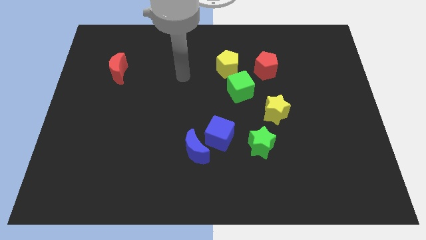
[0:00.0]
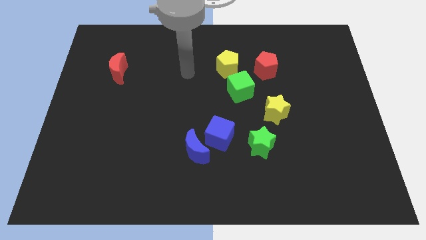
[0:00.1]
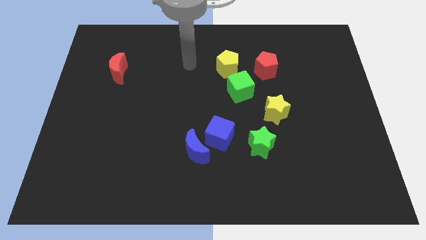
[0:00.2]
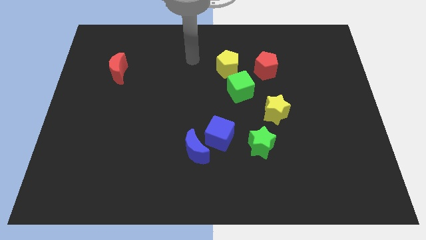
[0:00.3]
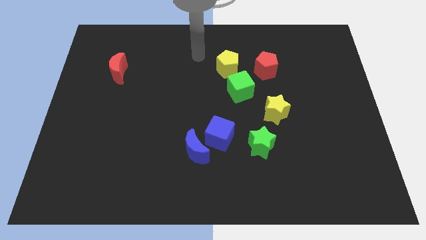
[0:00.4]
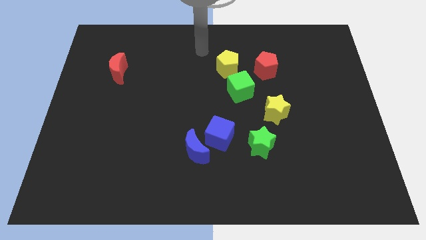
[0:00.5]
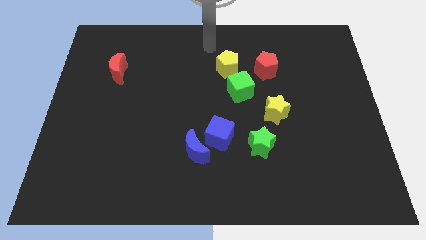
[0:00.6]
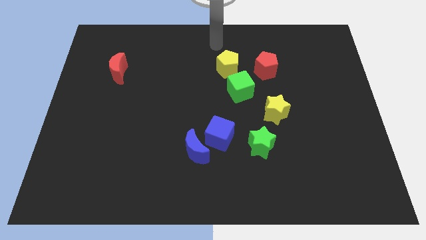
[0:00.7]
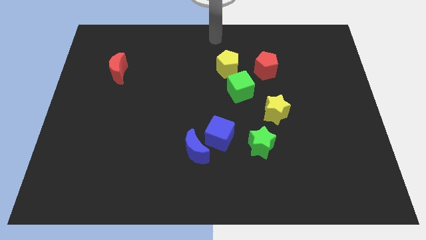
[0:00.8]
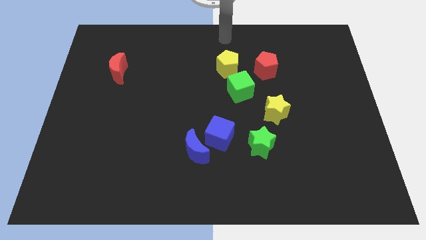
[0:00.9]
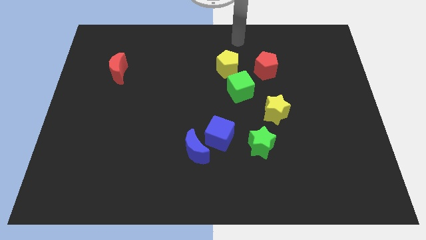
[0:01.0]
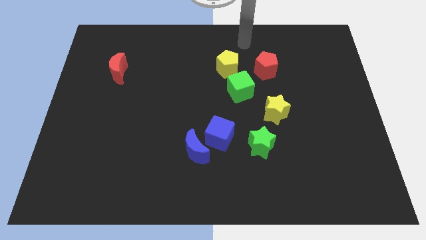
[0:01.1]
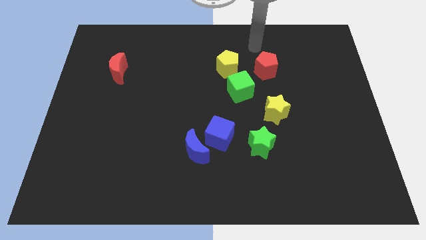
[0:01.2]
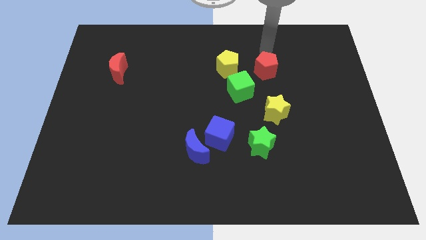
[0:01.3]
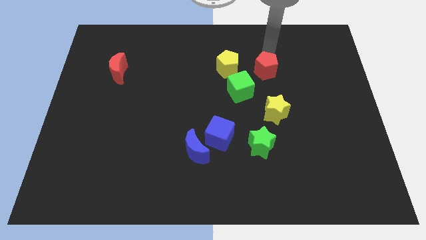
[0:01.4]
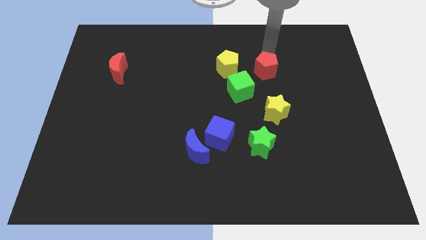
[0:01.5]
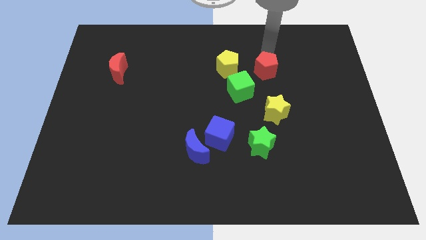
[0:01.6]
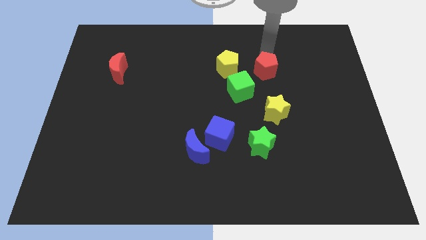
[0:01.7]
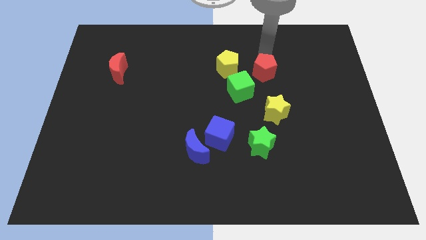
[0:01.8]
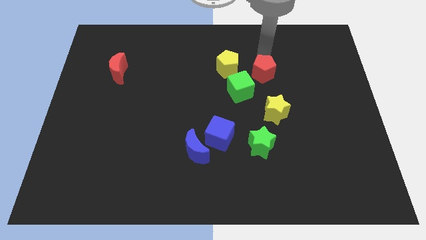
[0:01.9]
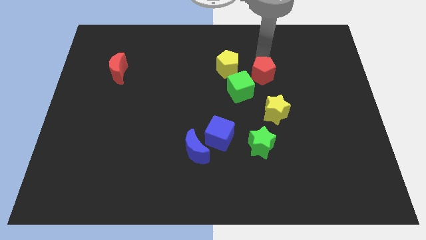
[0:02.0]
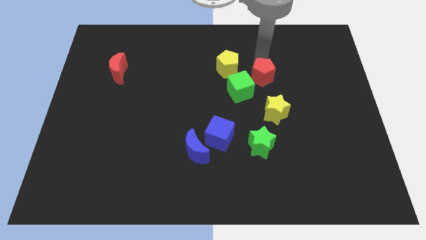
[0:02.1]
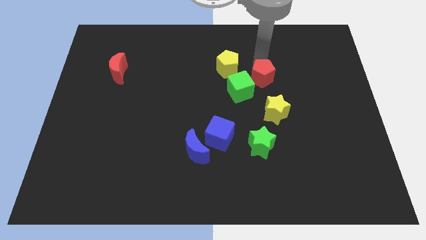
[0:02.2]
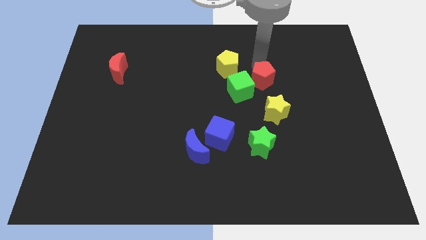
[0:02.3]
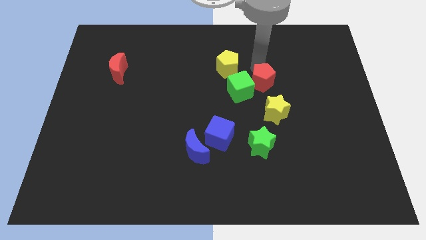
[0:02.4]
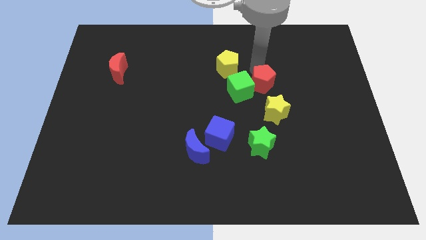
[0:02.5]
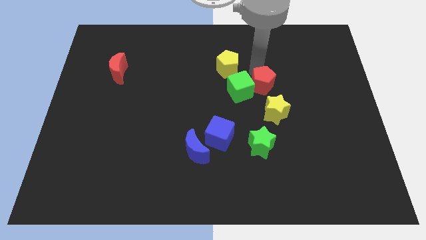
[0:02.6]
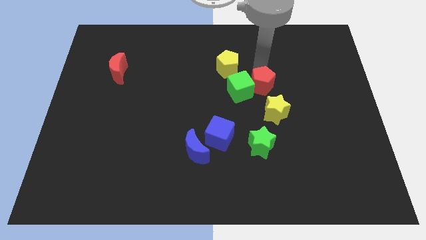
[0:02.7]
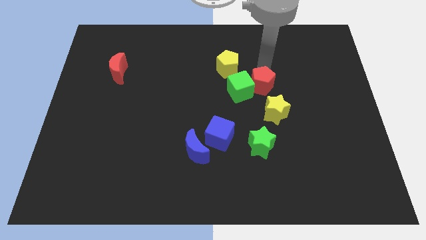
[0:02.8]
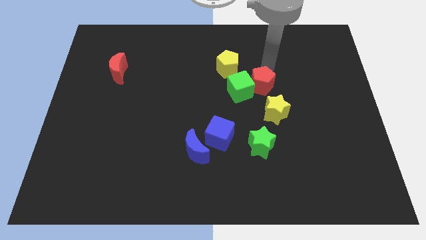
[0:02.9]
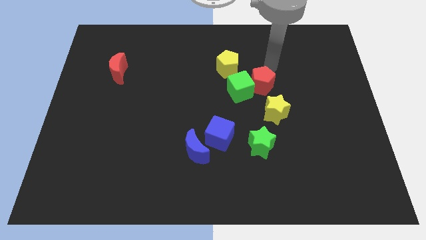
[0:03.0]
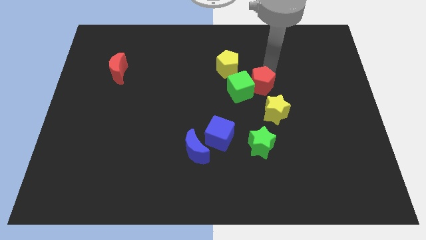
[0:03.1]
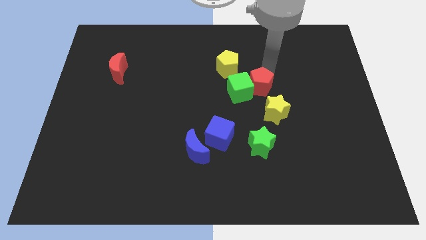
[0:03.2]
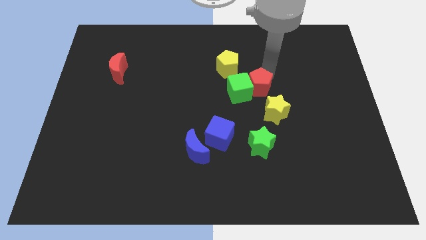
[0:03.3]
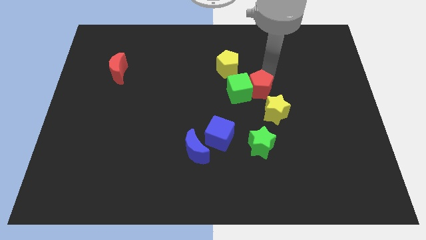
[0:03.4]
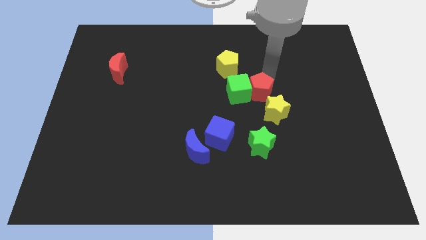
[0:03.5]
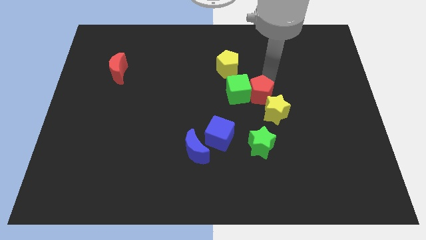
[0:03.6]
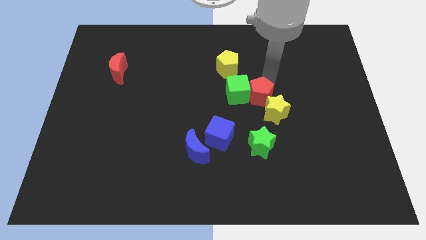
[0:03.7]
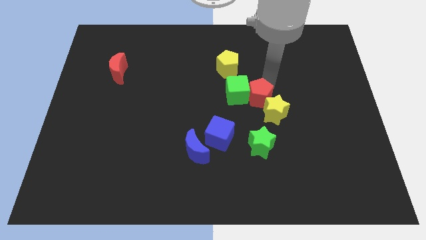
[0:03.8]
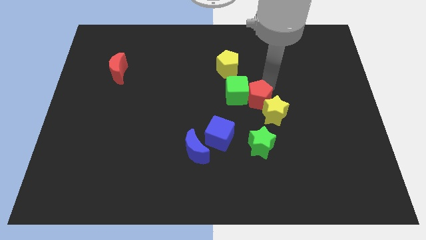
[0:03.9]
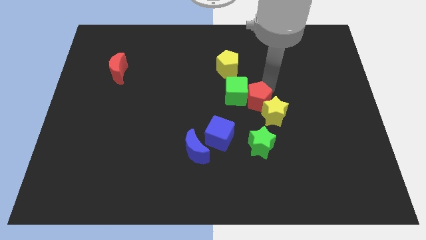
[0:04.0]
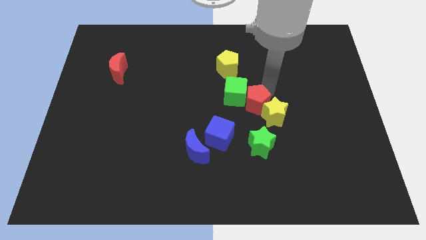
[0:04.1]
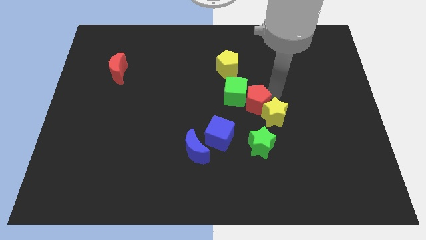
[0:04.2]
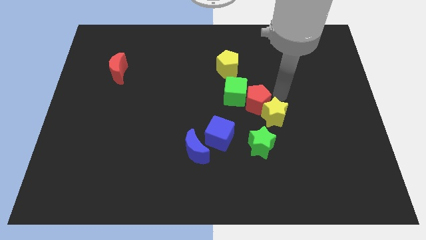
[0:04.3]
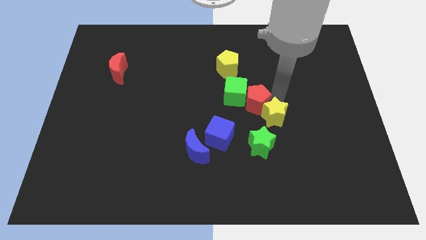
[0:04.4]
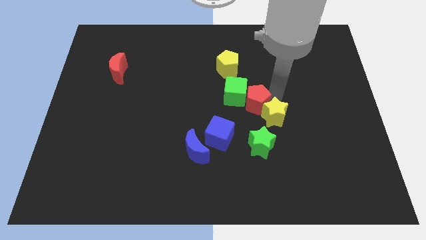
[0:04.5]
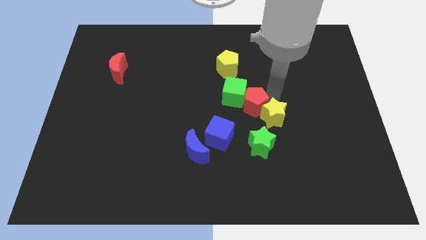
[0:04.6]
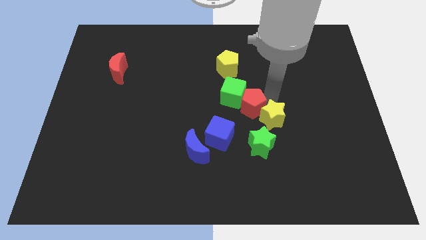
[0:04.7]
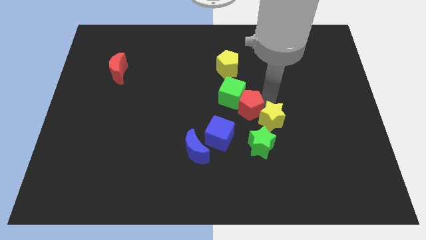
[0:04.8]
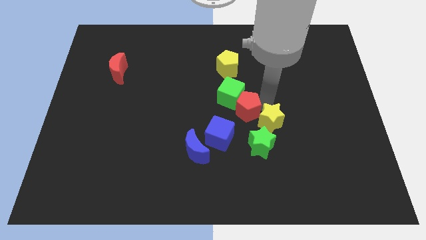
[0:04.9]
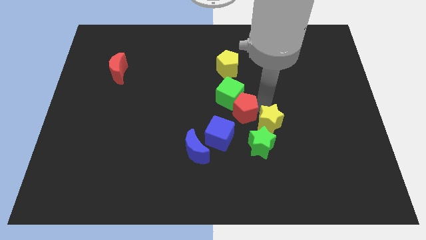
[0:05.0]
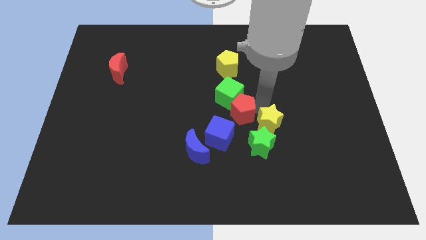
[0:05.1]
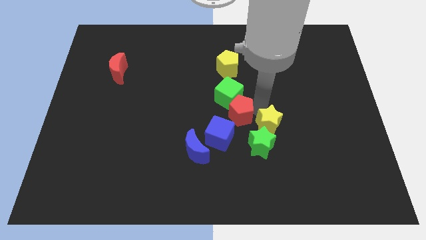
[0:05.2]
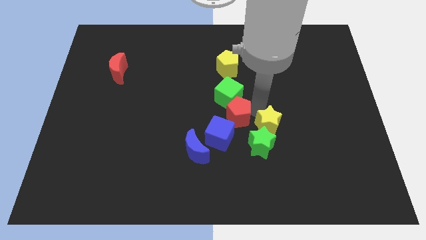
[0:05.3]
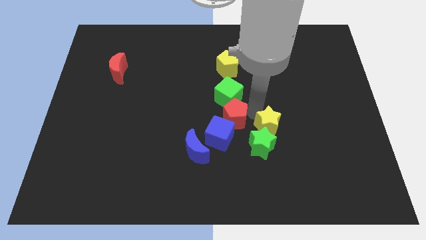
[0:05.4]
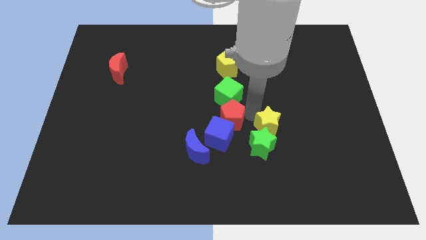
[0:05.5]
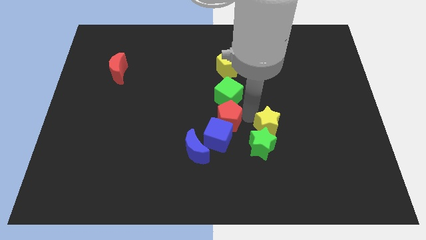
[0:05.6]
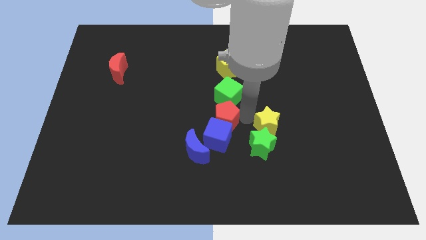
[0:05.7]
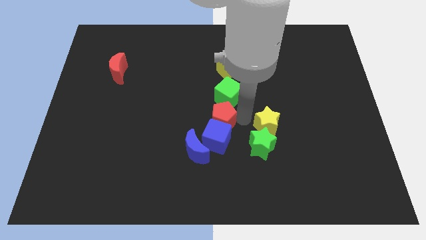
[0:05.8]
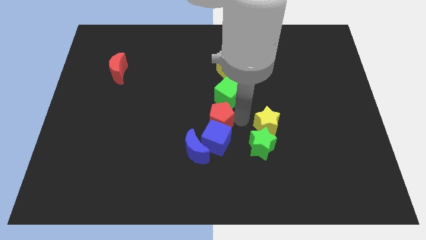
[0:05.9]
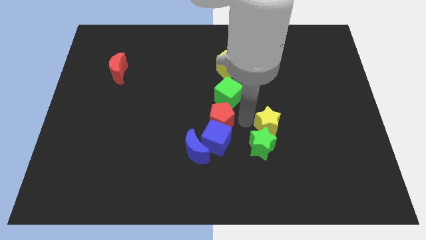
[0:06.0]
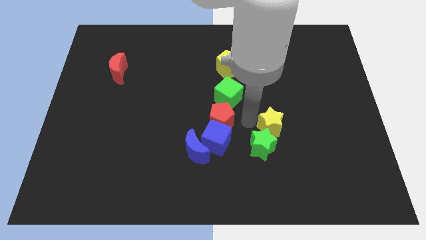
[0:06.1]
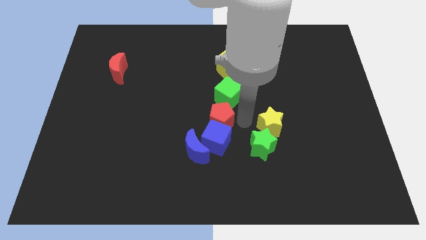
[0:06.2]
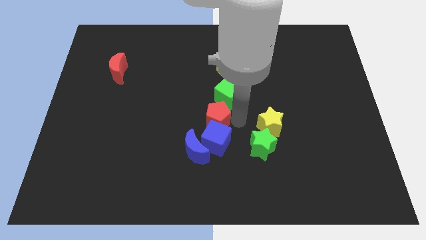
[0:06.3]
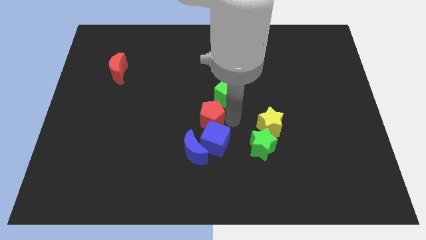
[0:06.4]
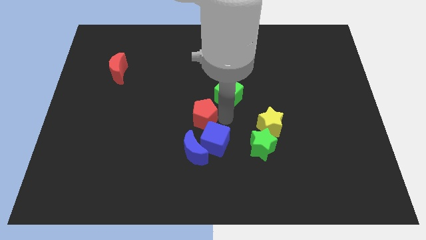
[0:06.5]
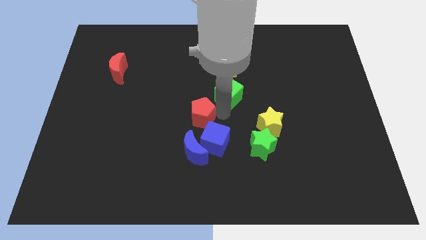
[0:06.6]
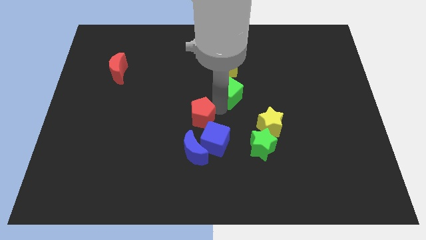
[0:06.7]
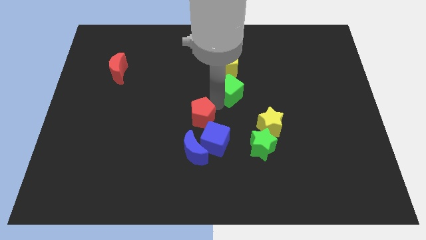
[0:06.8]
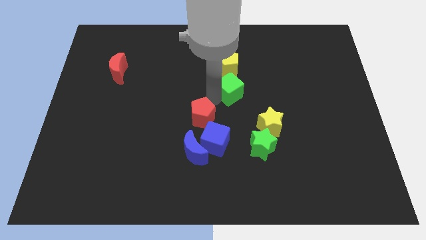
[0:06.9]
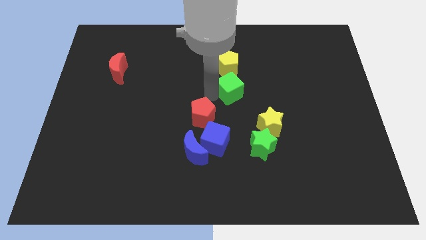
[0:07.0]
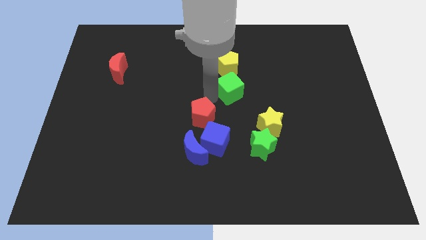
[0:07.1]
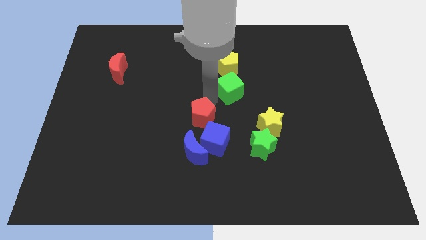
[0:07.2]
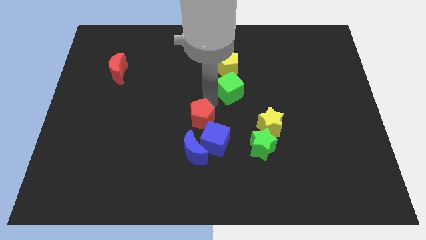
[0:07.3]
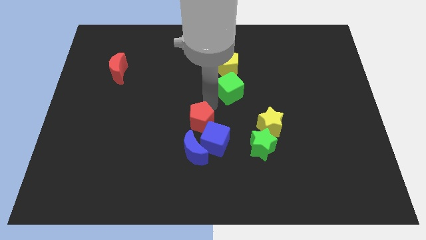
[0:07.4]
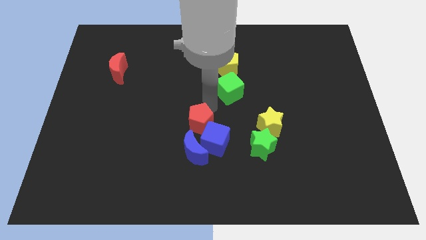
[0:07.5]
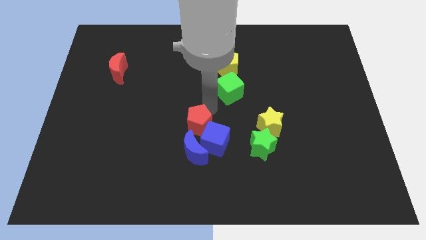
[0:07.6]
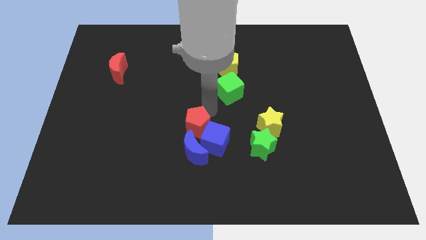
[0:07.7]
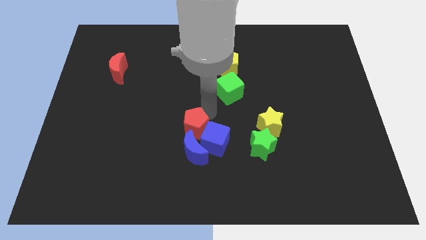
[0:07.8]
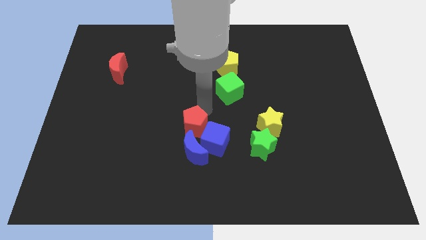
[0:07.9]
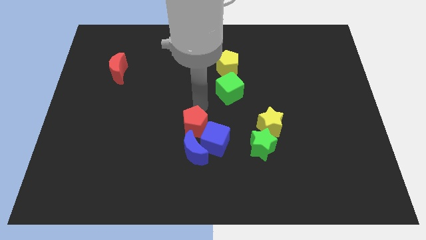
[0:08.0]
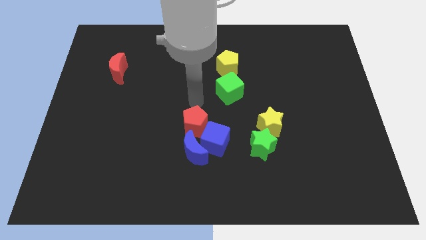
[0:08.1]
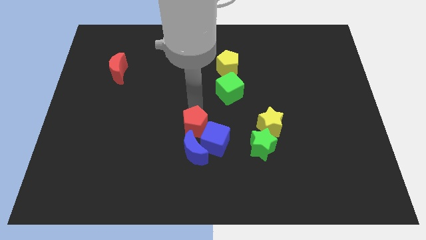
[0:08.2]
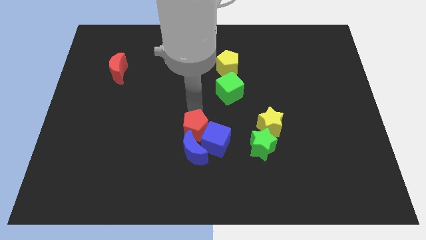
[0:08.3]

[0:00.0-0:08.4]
put the red pentagon next to the blue moon
